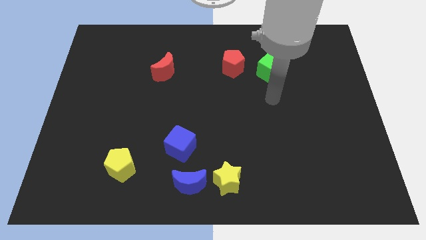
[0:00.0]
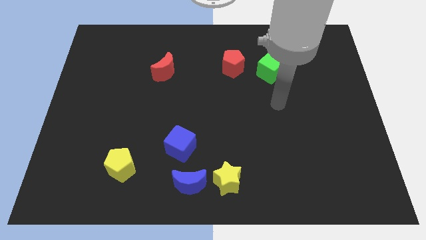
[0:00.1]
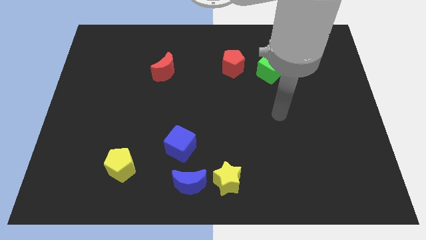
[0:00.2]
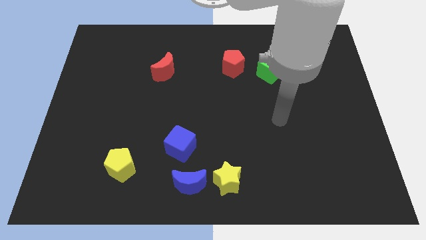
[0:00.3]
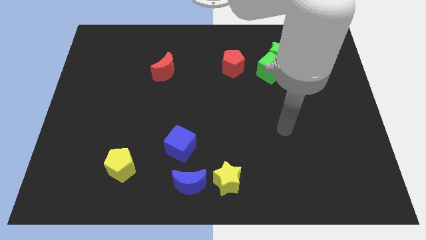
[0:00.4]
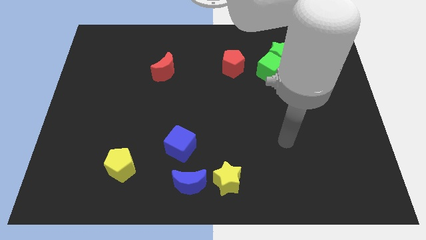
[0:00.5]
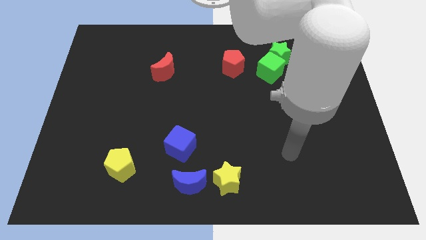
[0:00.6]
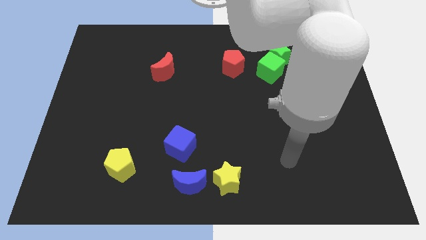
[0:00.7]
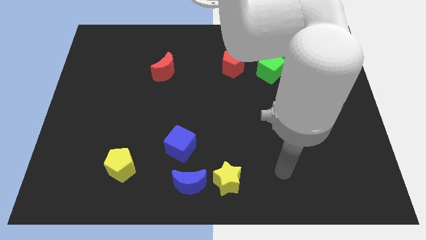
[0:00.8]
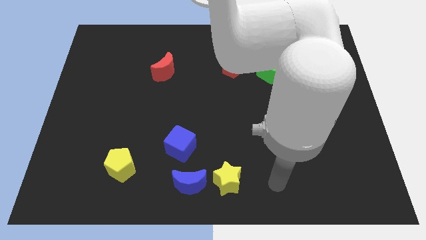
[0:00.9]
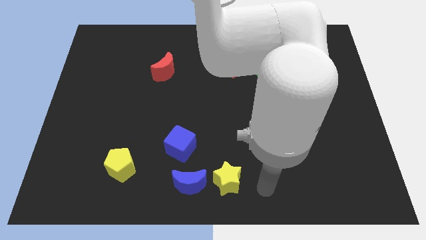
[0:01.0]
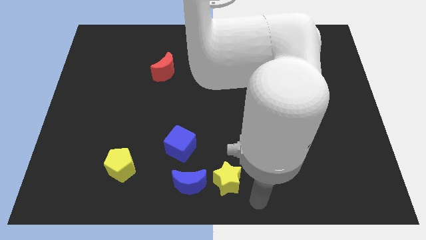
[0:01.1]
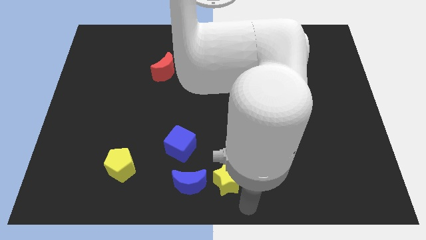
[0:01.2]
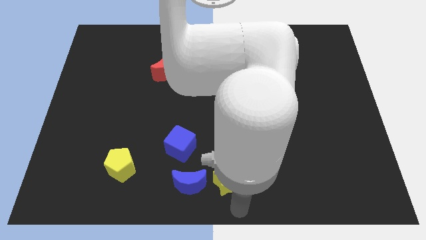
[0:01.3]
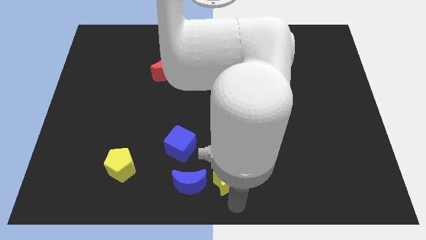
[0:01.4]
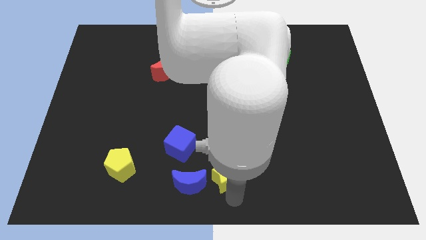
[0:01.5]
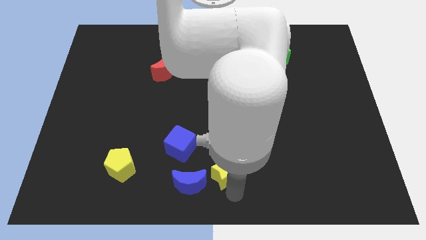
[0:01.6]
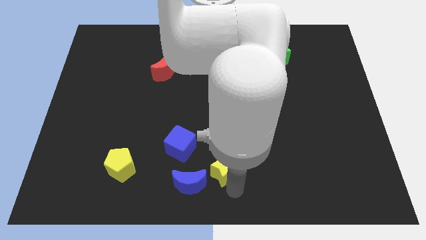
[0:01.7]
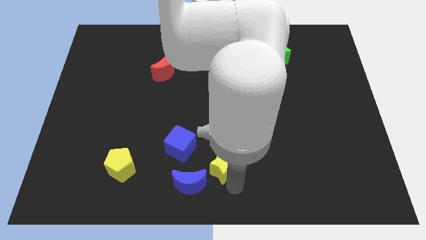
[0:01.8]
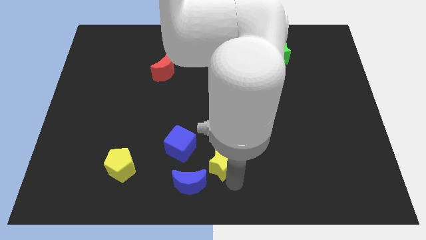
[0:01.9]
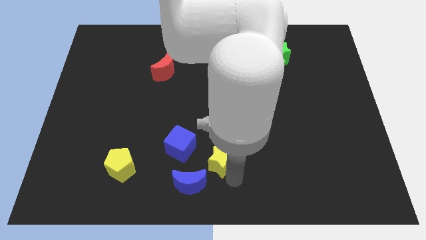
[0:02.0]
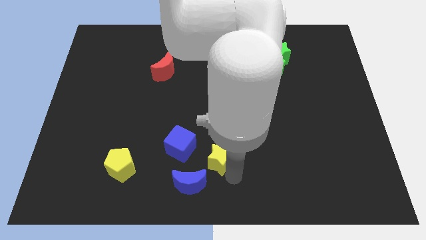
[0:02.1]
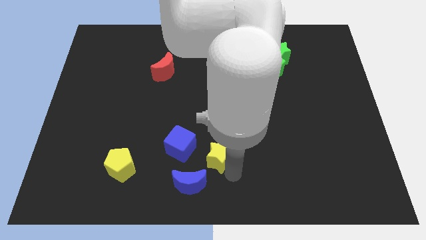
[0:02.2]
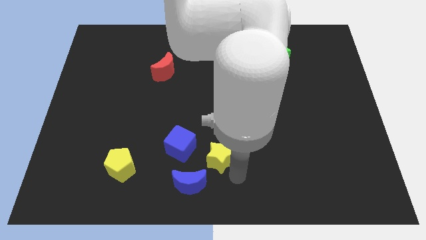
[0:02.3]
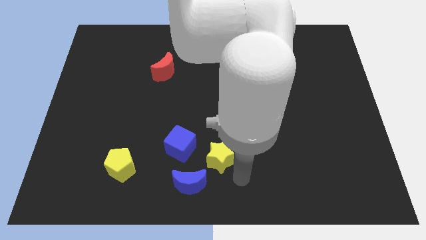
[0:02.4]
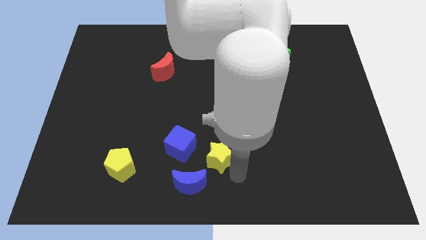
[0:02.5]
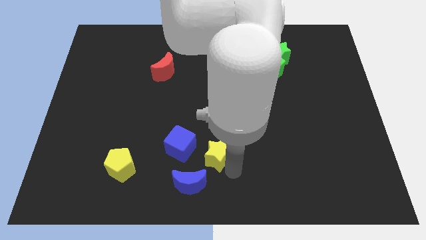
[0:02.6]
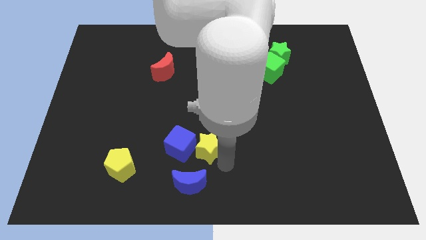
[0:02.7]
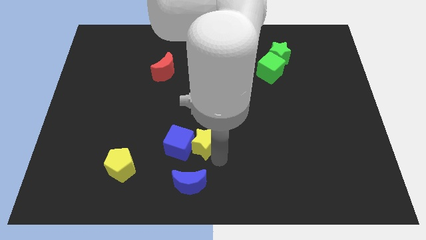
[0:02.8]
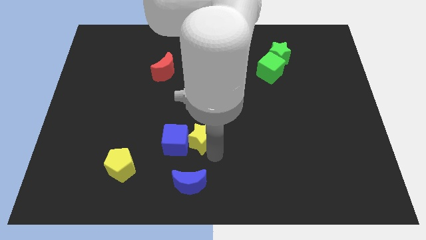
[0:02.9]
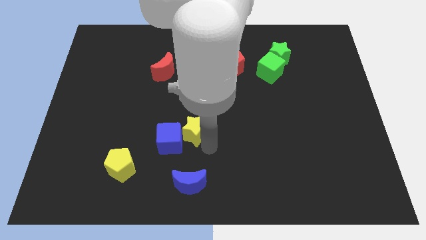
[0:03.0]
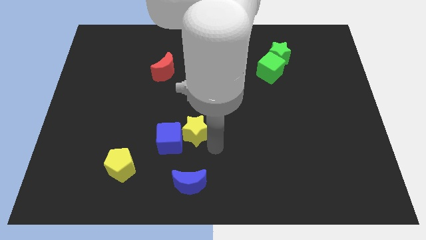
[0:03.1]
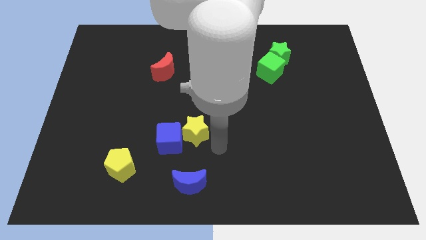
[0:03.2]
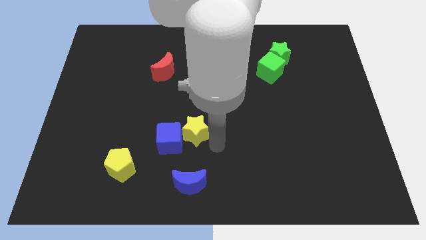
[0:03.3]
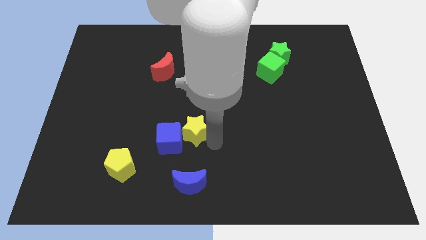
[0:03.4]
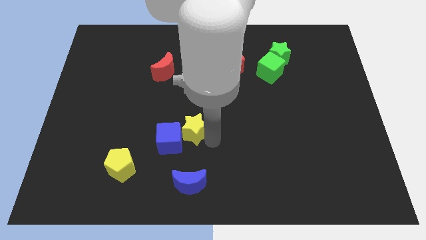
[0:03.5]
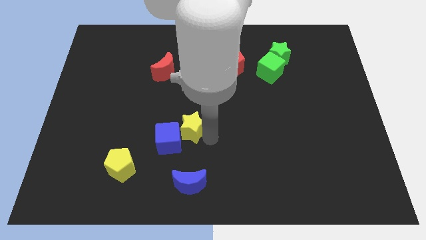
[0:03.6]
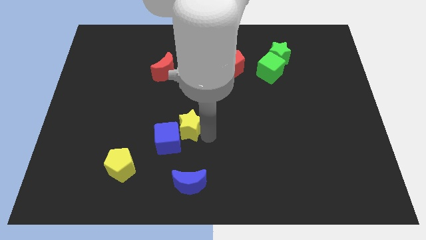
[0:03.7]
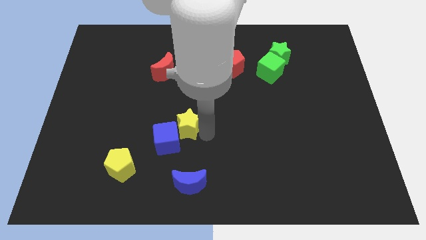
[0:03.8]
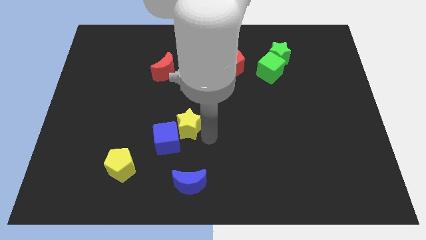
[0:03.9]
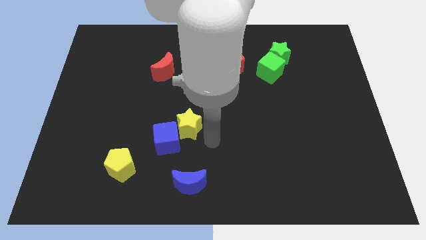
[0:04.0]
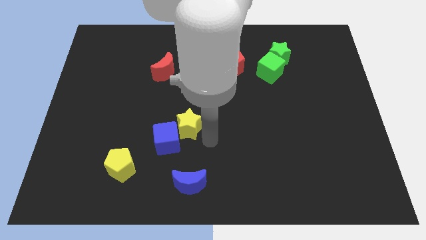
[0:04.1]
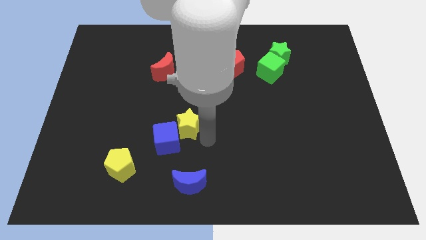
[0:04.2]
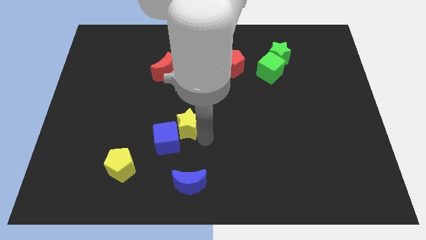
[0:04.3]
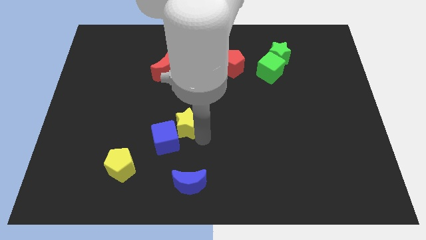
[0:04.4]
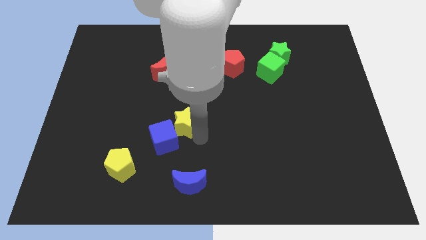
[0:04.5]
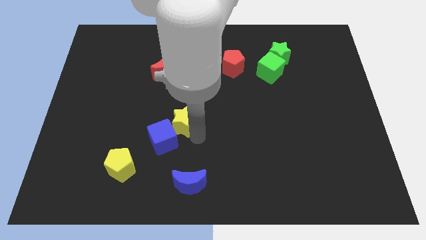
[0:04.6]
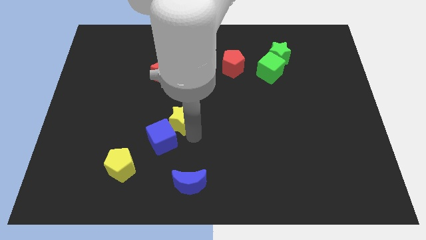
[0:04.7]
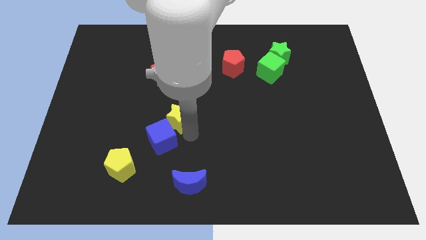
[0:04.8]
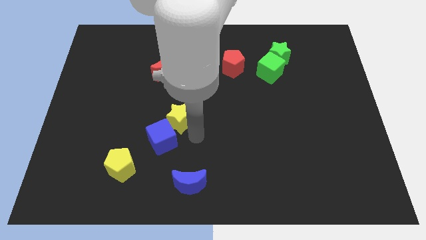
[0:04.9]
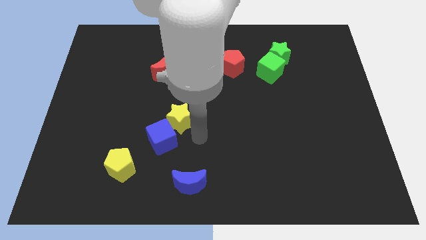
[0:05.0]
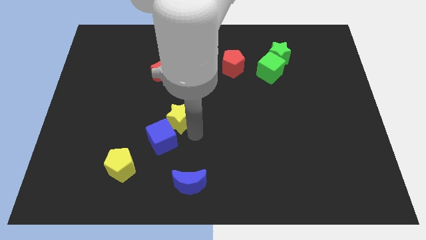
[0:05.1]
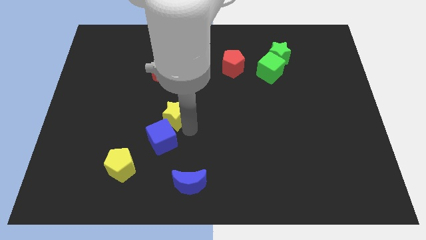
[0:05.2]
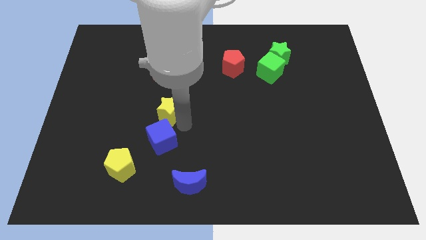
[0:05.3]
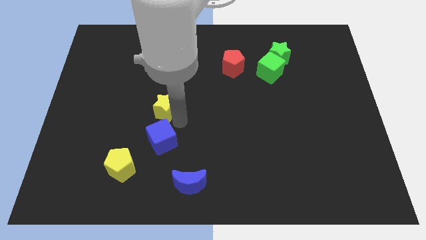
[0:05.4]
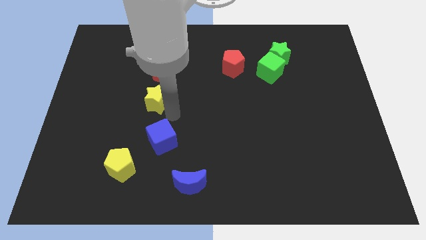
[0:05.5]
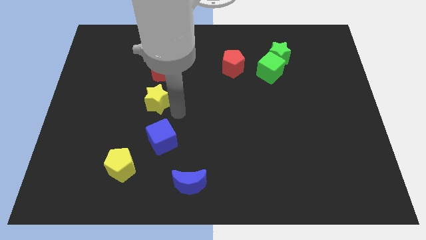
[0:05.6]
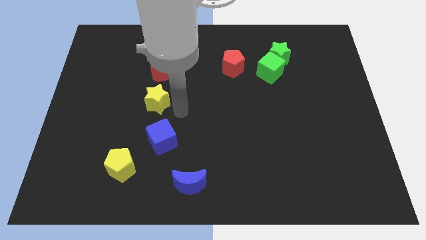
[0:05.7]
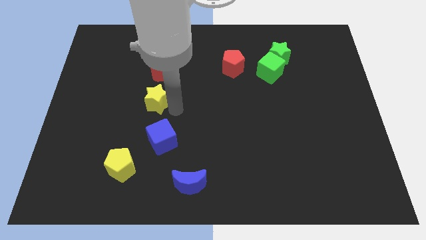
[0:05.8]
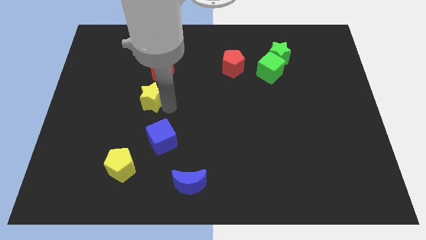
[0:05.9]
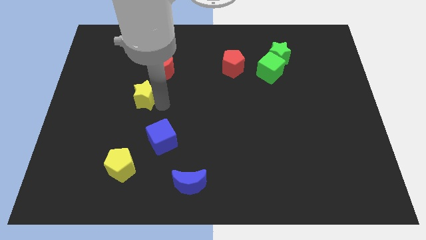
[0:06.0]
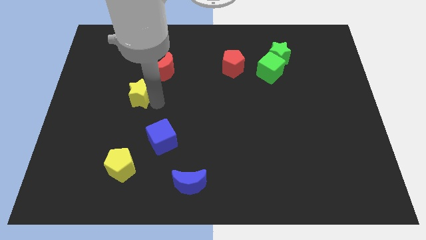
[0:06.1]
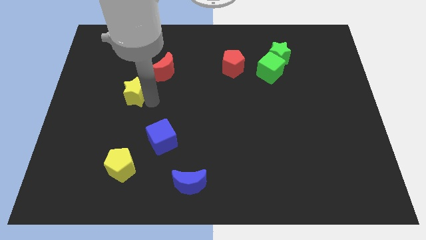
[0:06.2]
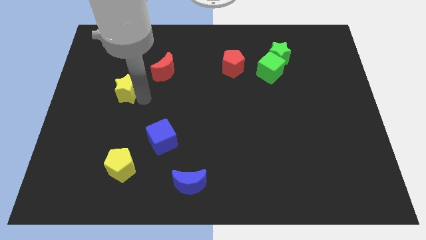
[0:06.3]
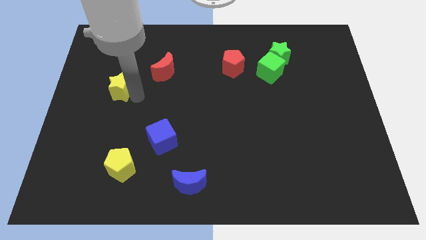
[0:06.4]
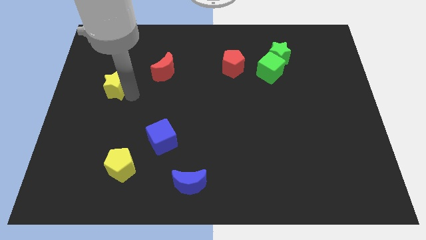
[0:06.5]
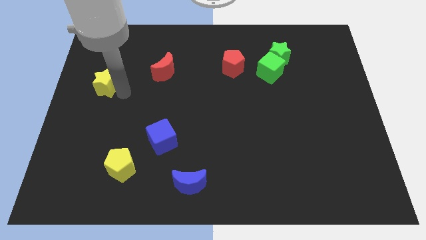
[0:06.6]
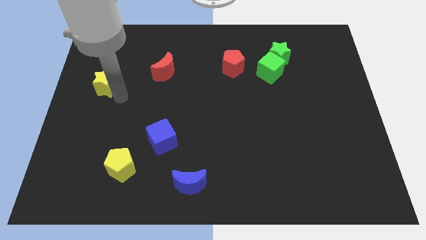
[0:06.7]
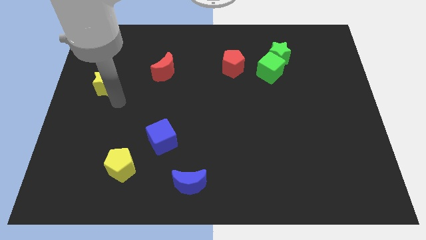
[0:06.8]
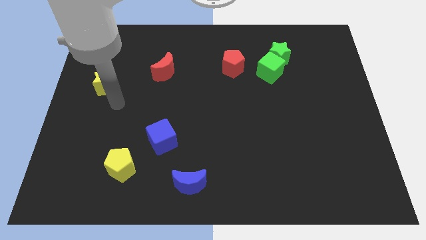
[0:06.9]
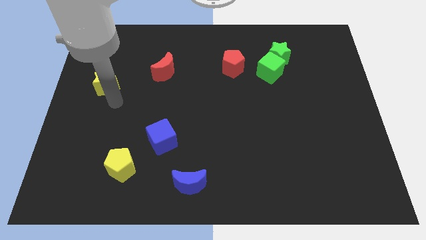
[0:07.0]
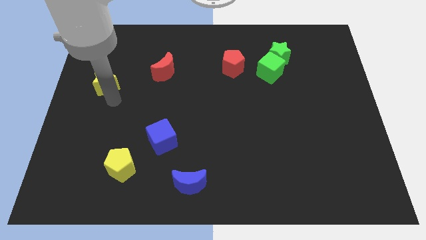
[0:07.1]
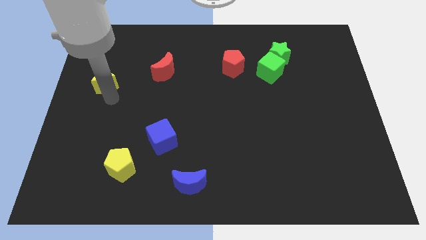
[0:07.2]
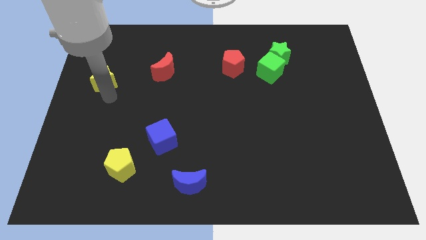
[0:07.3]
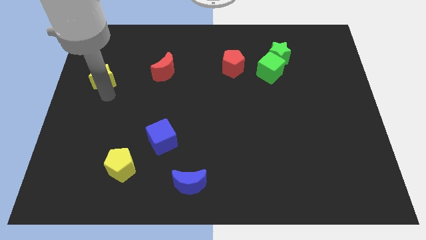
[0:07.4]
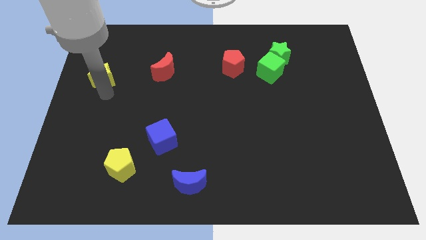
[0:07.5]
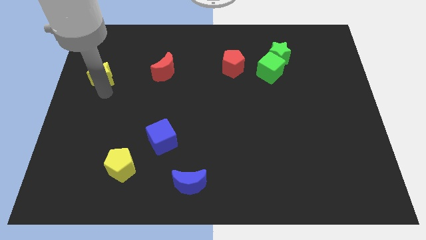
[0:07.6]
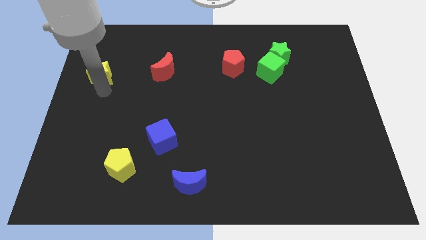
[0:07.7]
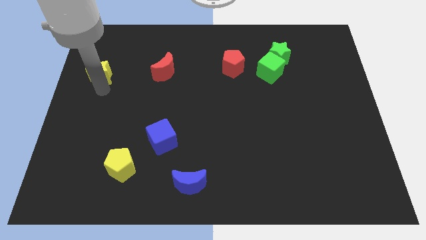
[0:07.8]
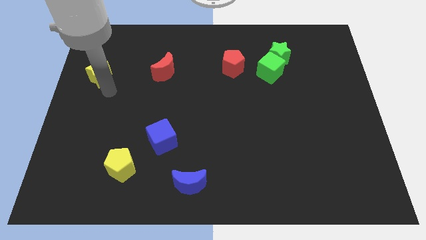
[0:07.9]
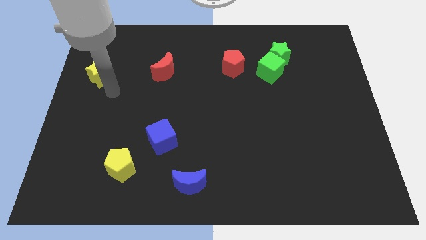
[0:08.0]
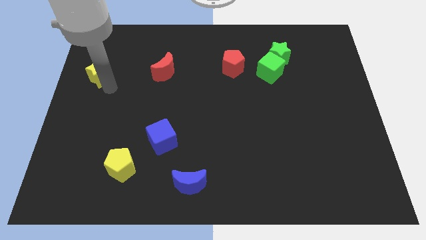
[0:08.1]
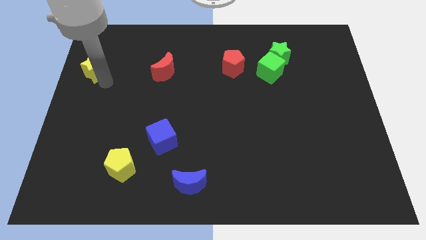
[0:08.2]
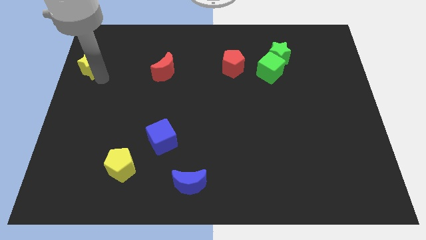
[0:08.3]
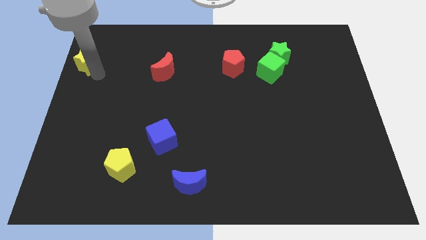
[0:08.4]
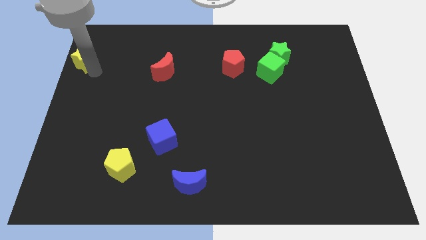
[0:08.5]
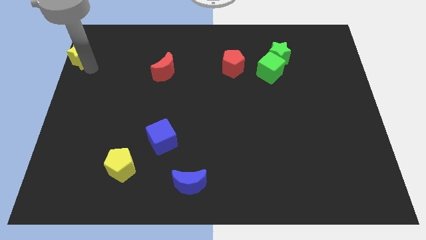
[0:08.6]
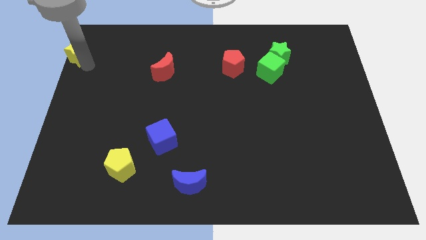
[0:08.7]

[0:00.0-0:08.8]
put the yellow star to the top left of the board
